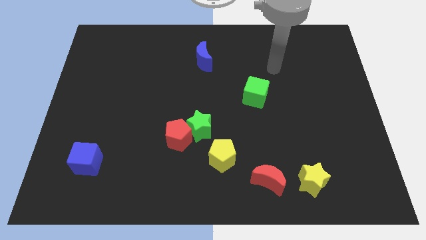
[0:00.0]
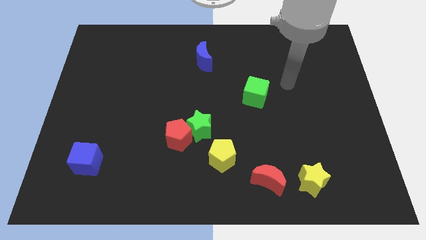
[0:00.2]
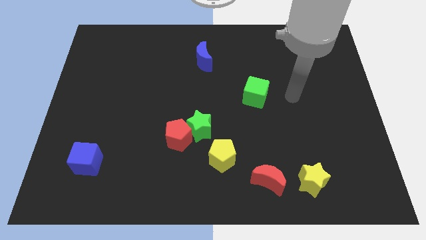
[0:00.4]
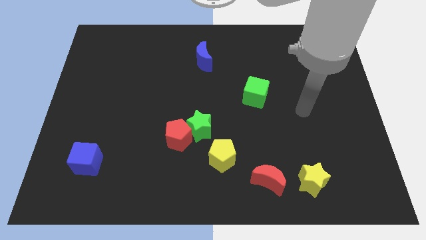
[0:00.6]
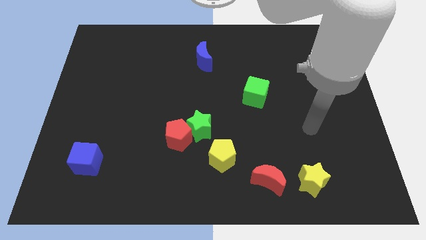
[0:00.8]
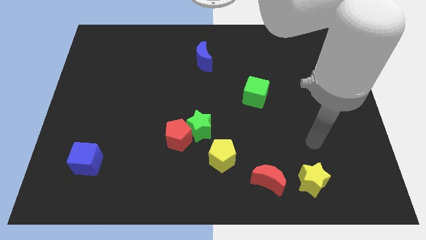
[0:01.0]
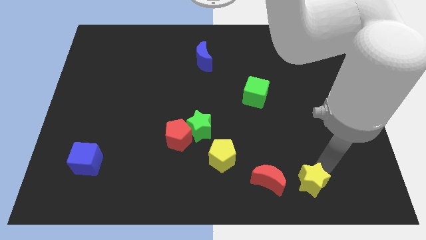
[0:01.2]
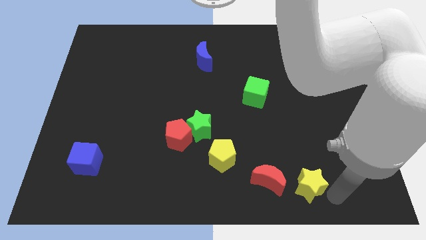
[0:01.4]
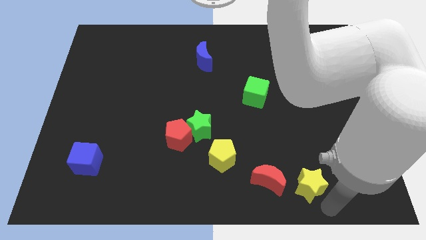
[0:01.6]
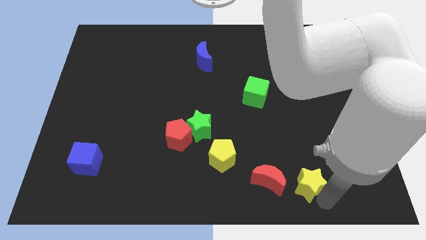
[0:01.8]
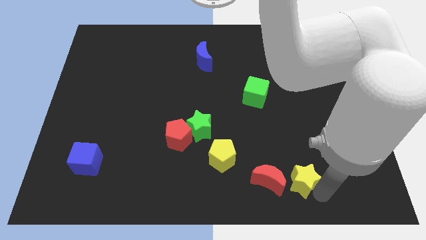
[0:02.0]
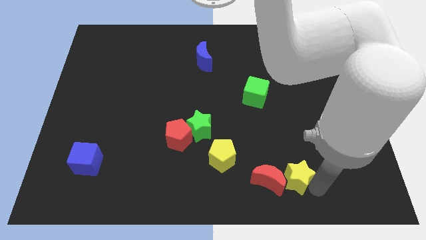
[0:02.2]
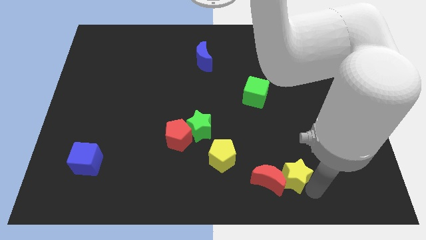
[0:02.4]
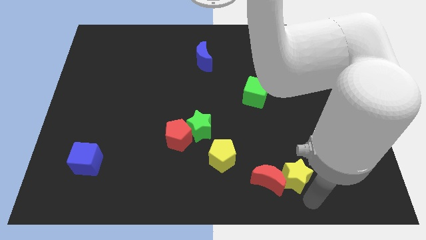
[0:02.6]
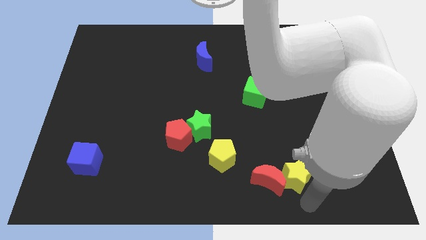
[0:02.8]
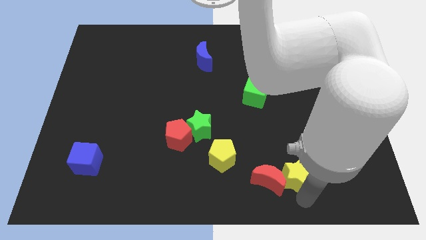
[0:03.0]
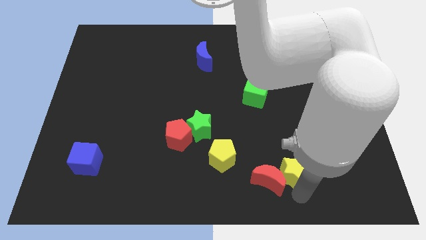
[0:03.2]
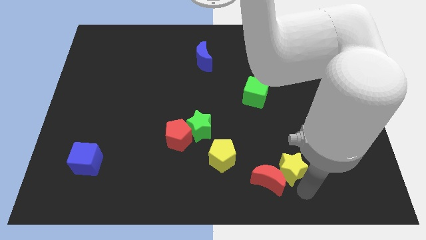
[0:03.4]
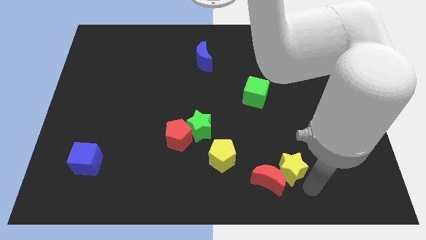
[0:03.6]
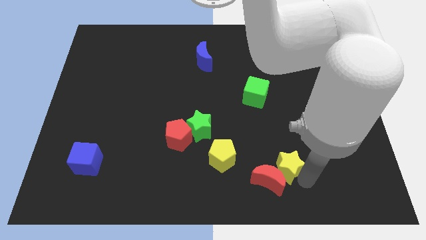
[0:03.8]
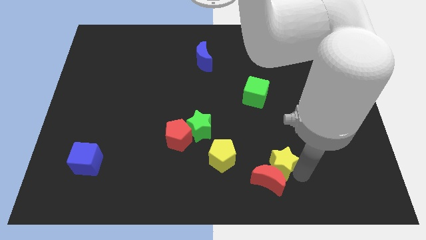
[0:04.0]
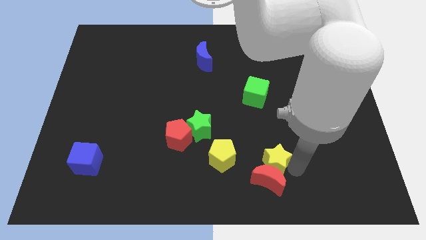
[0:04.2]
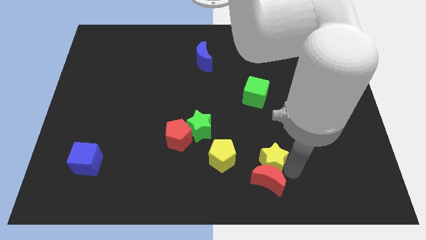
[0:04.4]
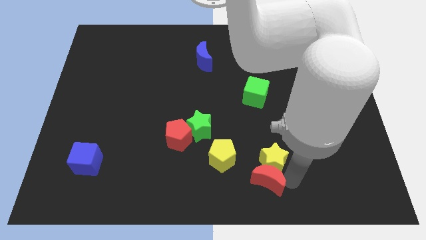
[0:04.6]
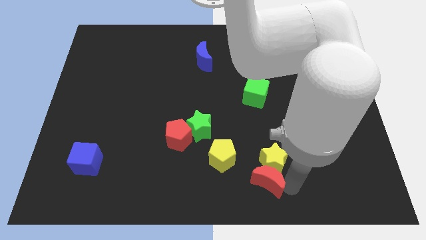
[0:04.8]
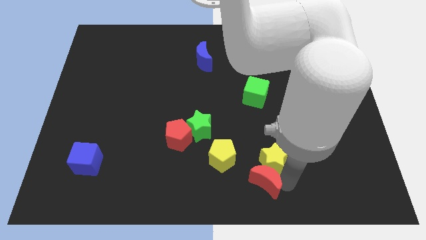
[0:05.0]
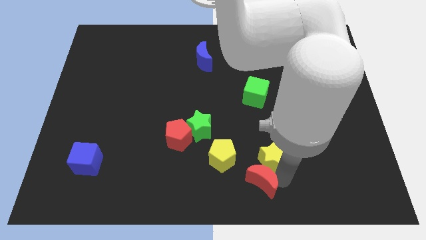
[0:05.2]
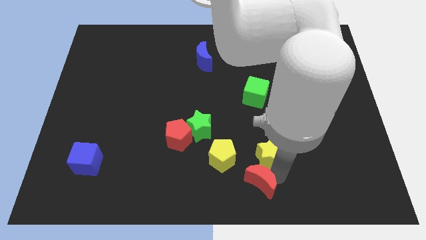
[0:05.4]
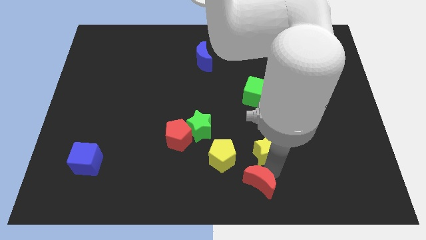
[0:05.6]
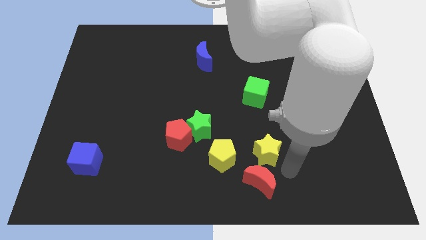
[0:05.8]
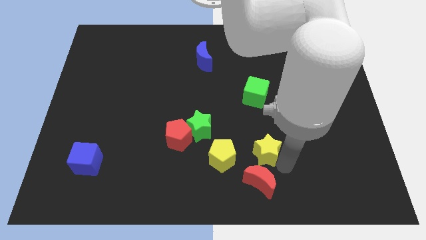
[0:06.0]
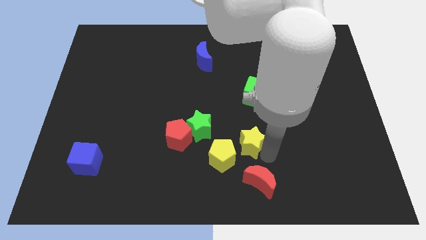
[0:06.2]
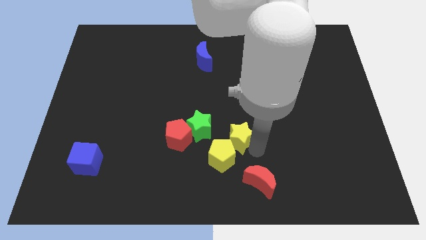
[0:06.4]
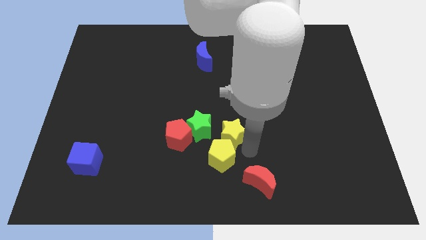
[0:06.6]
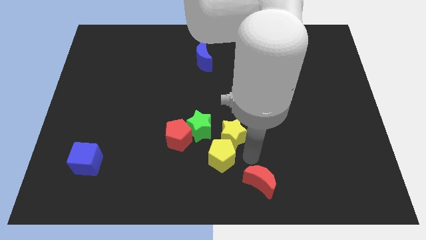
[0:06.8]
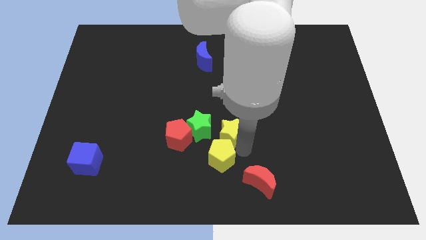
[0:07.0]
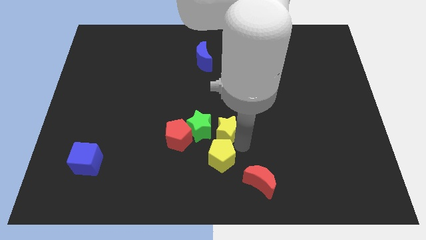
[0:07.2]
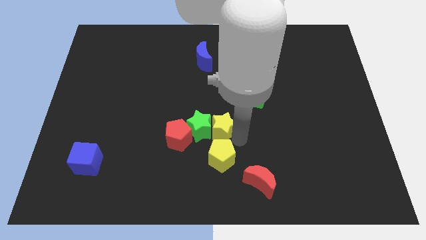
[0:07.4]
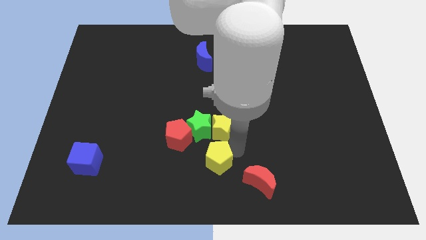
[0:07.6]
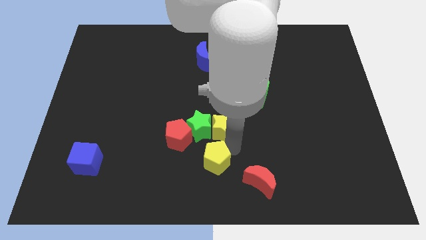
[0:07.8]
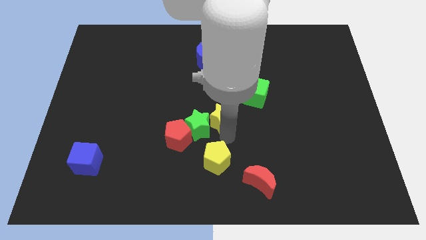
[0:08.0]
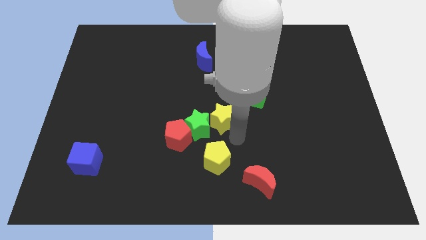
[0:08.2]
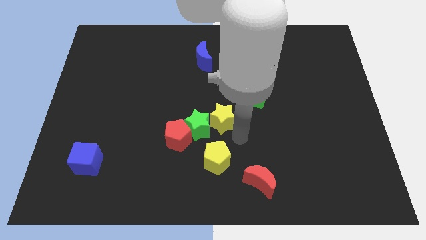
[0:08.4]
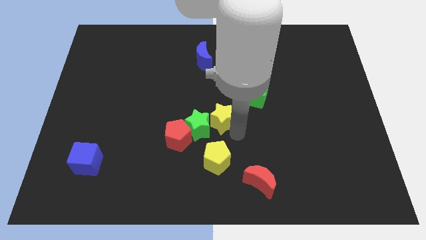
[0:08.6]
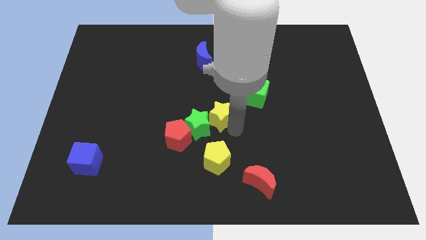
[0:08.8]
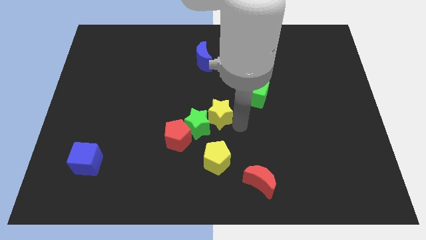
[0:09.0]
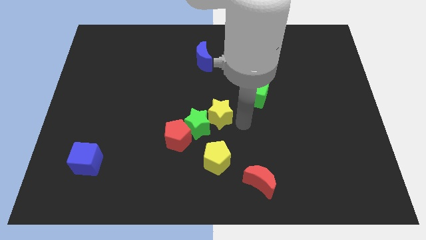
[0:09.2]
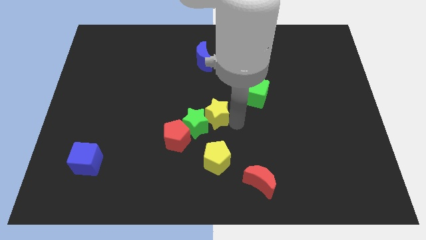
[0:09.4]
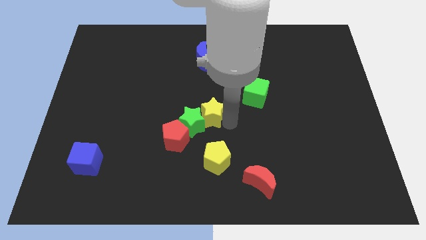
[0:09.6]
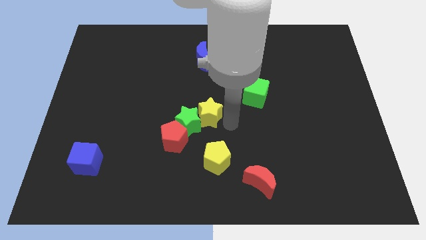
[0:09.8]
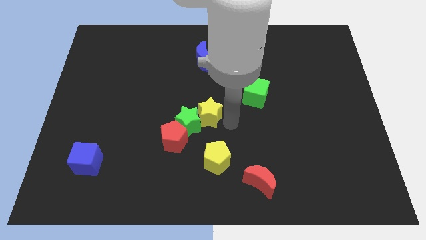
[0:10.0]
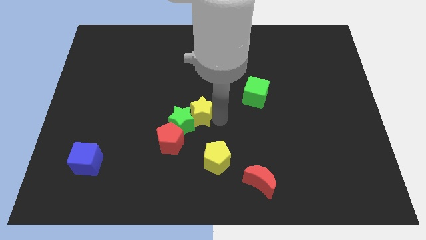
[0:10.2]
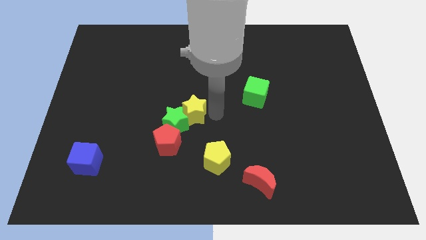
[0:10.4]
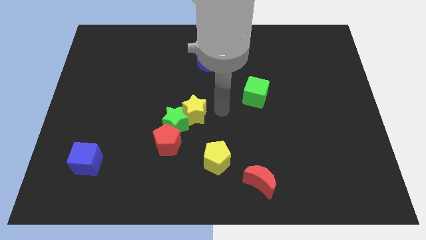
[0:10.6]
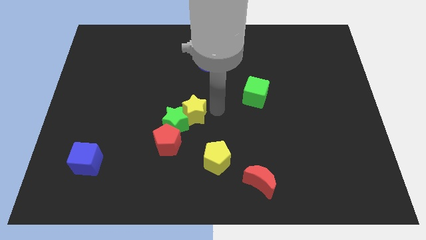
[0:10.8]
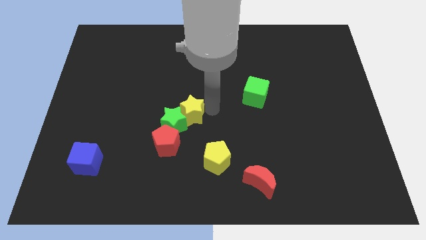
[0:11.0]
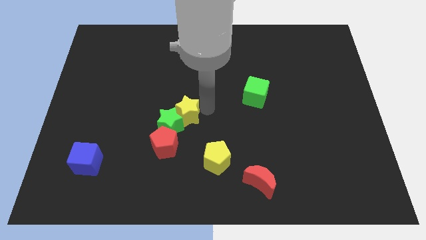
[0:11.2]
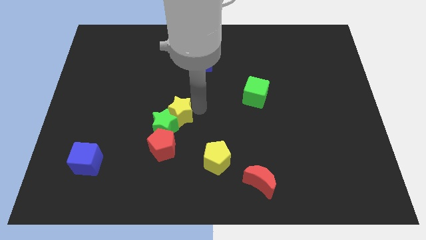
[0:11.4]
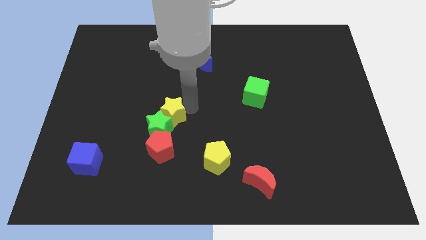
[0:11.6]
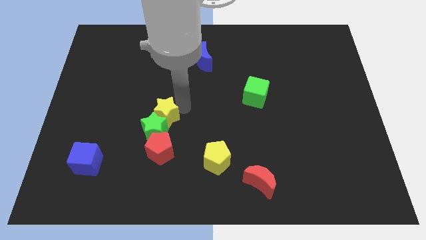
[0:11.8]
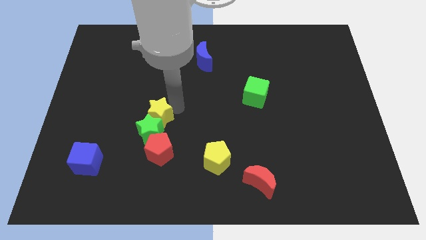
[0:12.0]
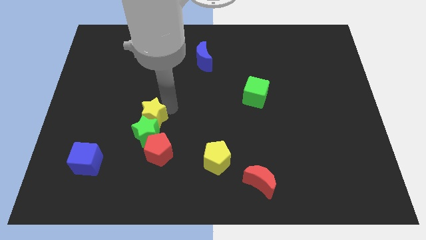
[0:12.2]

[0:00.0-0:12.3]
push the yellow star diagonally up and to the left of the red pentagon

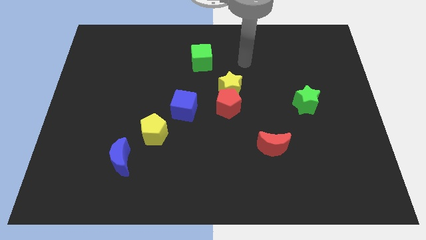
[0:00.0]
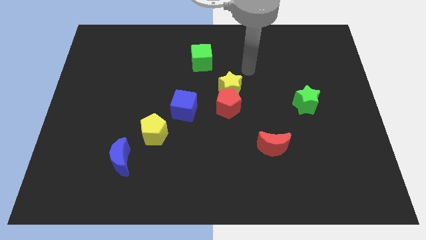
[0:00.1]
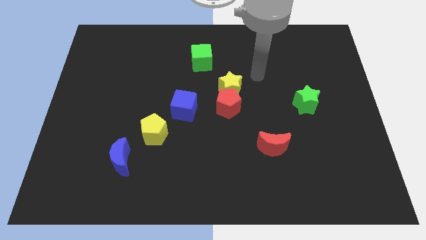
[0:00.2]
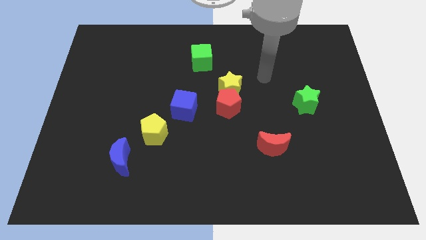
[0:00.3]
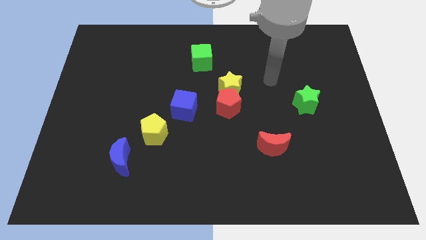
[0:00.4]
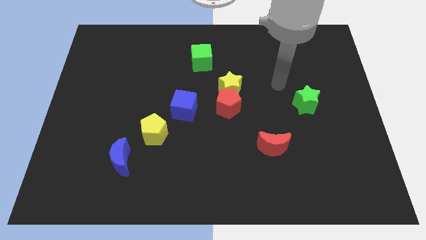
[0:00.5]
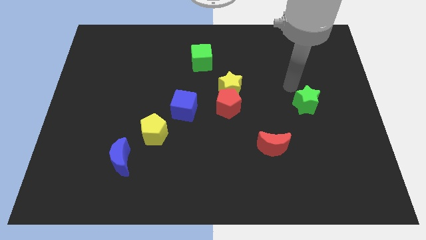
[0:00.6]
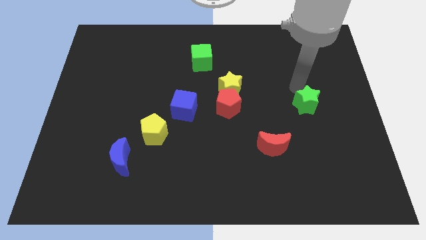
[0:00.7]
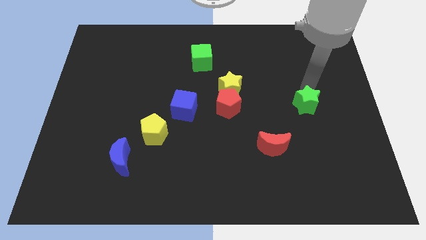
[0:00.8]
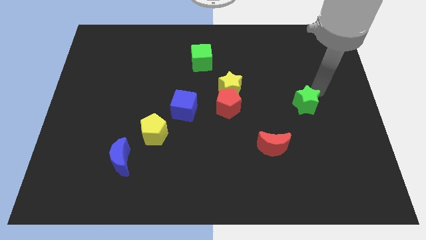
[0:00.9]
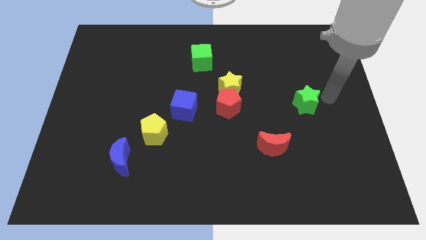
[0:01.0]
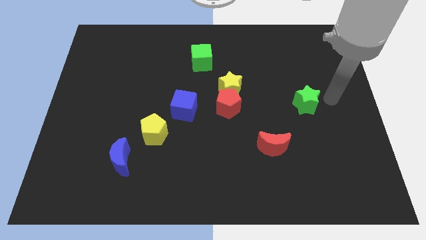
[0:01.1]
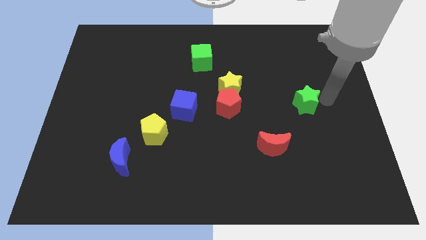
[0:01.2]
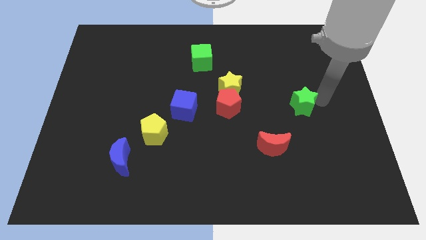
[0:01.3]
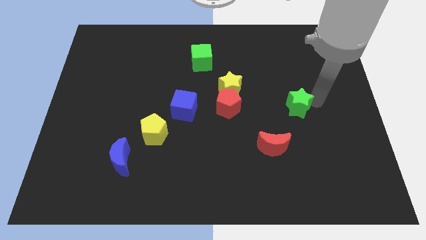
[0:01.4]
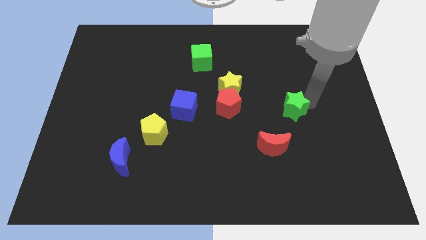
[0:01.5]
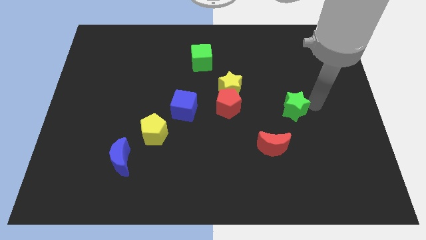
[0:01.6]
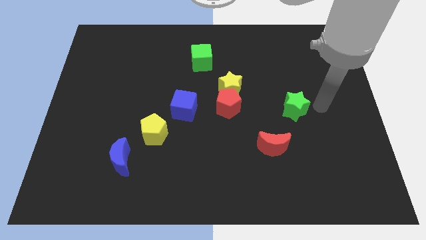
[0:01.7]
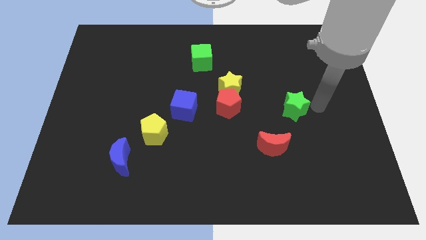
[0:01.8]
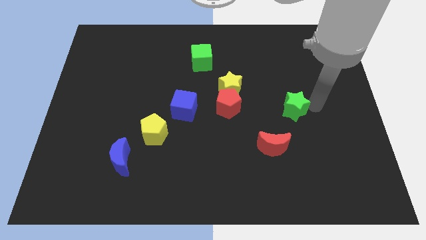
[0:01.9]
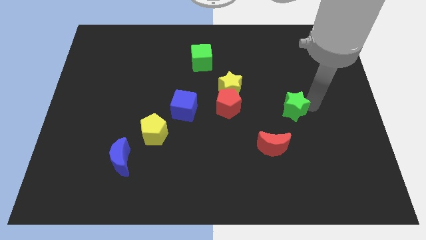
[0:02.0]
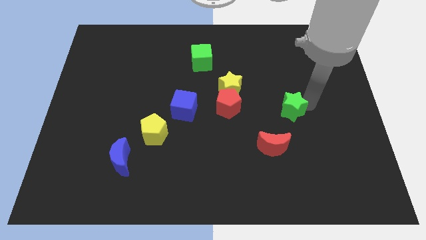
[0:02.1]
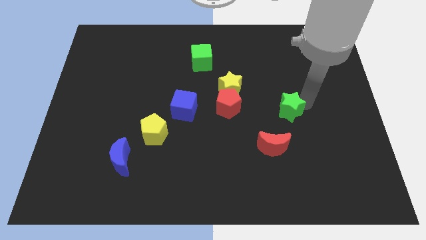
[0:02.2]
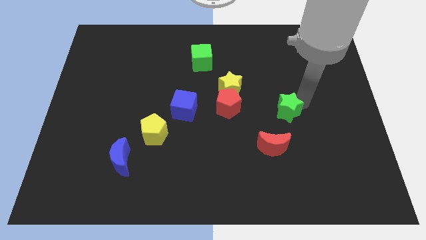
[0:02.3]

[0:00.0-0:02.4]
slide the green star to the top of the red moon
